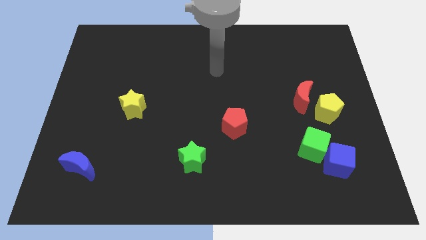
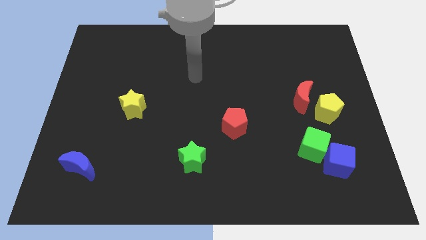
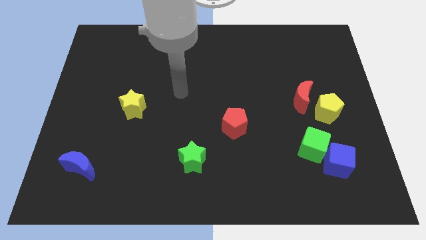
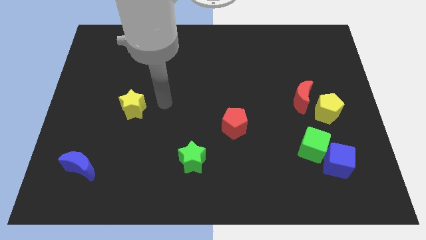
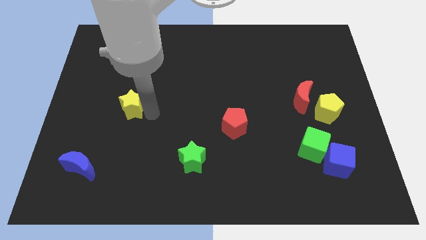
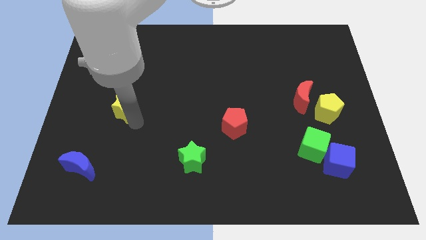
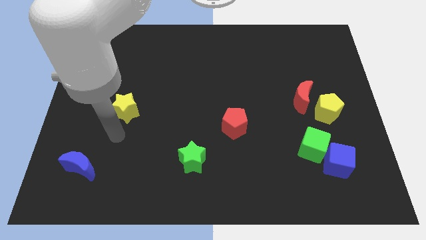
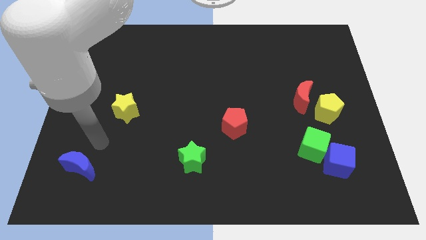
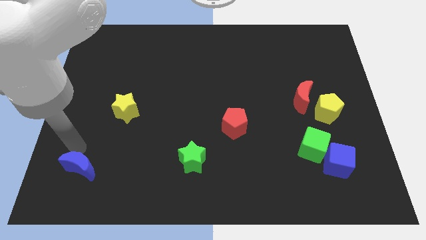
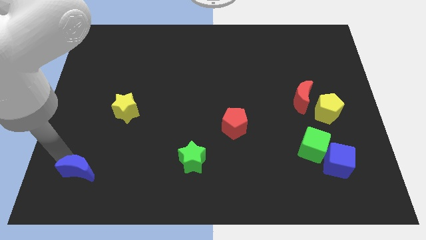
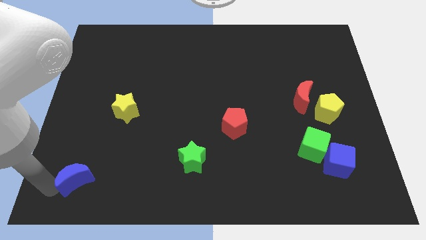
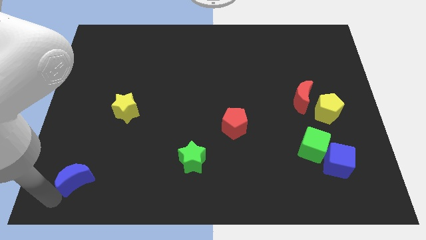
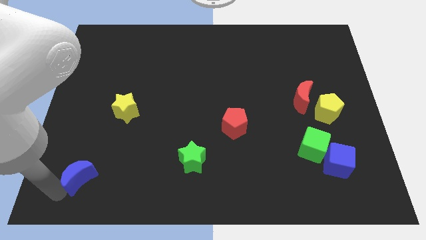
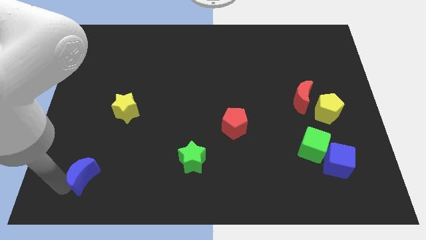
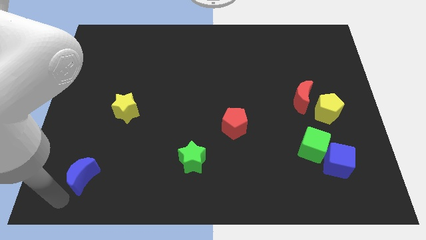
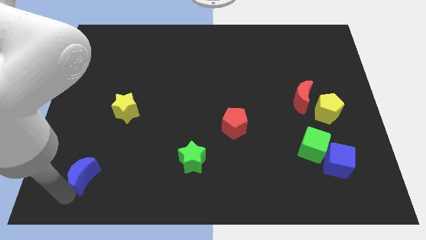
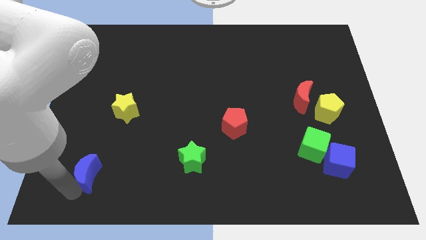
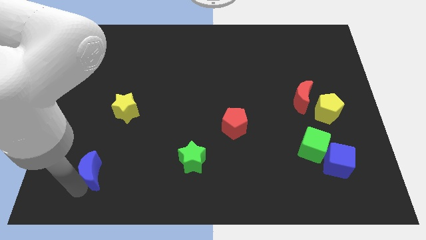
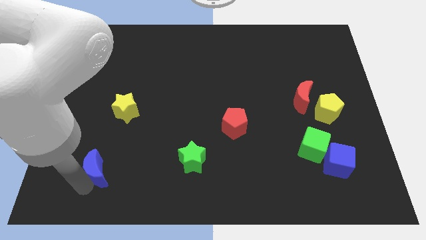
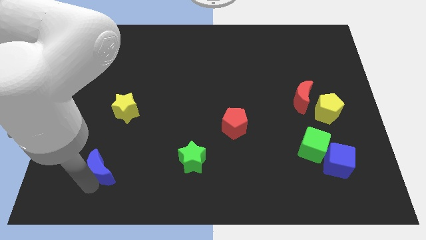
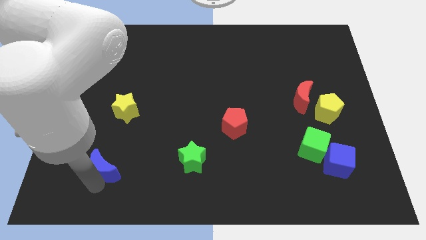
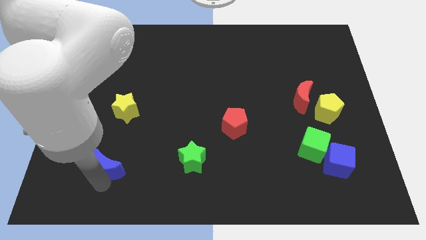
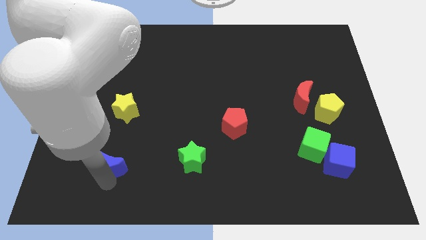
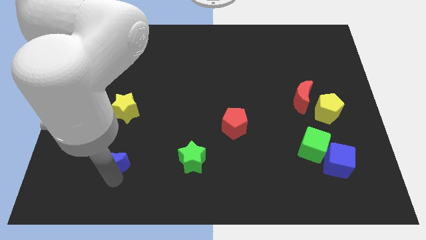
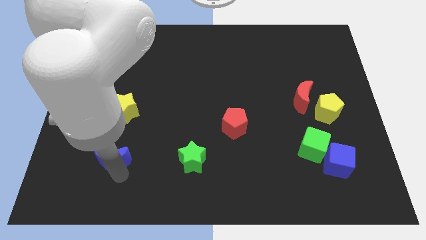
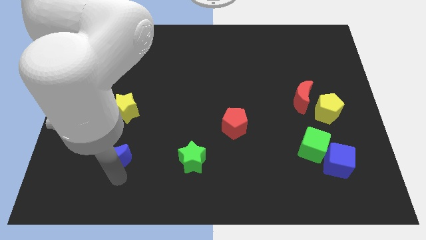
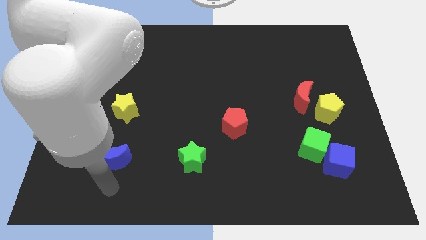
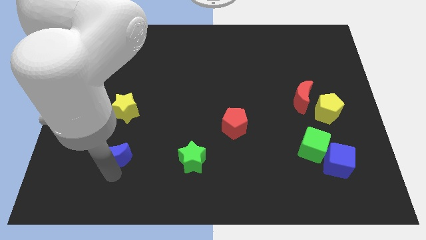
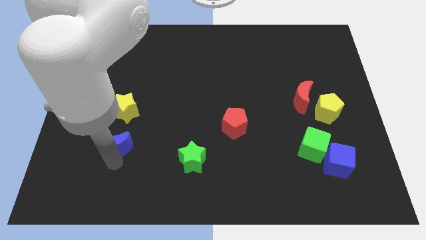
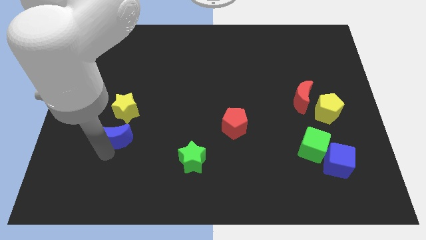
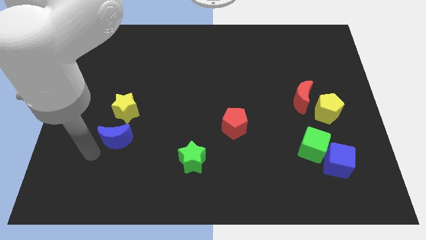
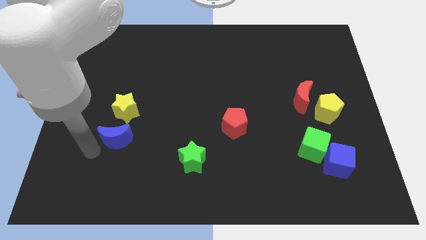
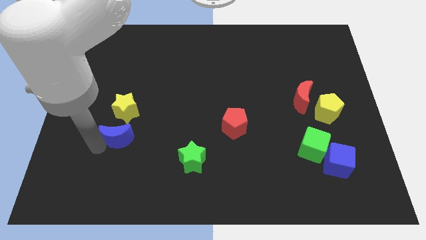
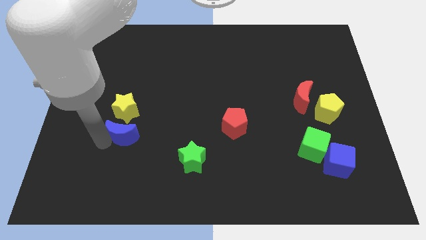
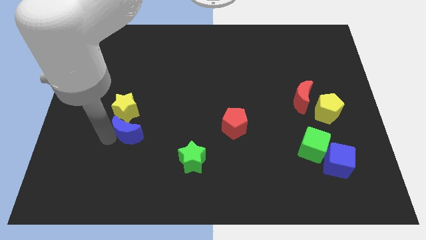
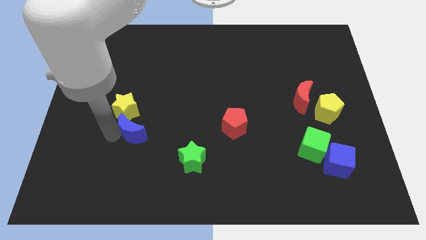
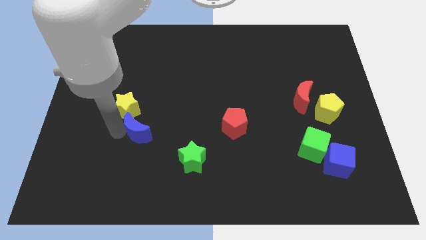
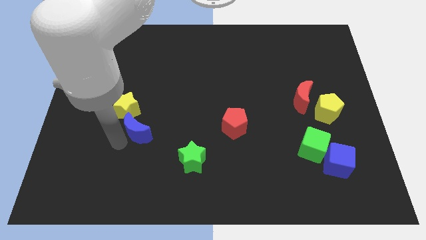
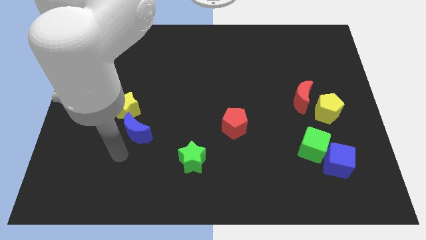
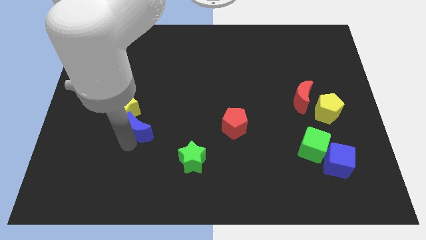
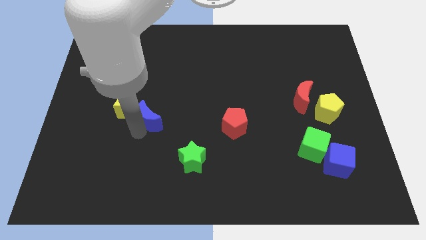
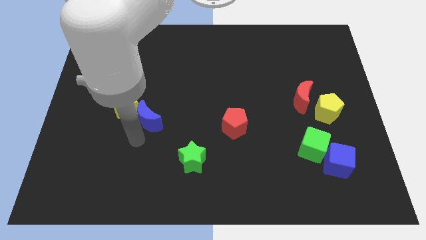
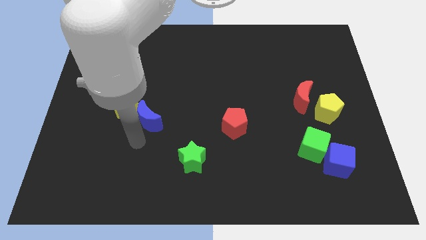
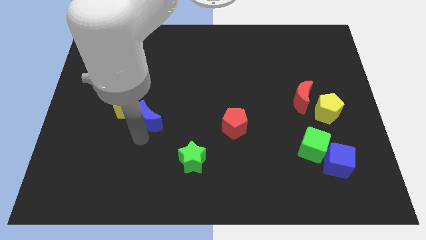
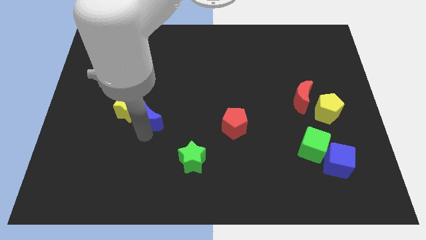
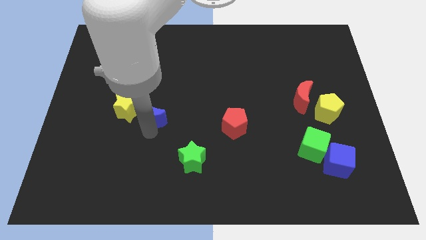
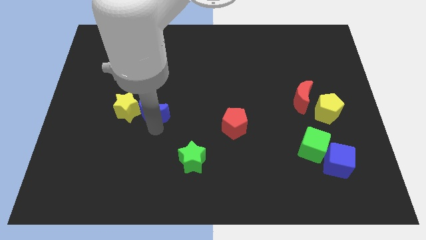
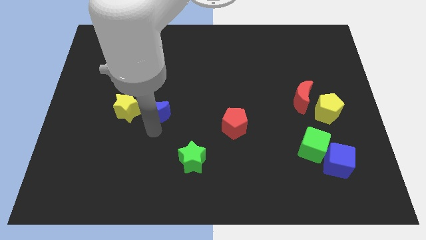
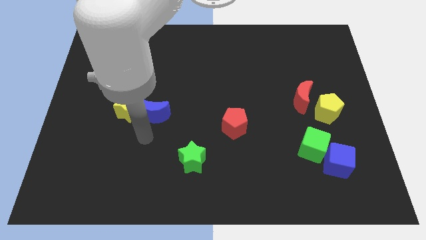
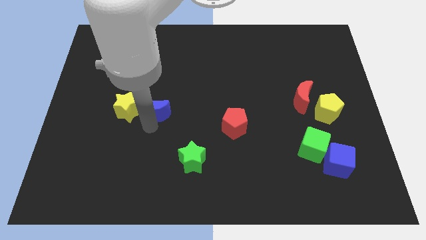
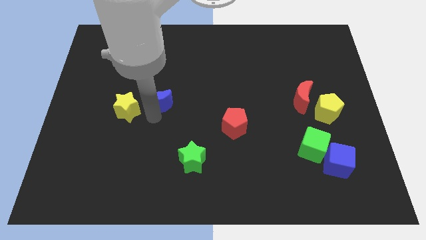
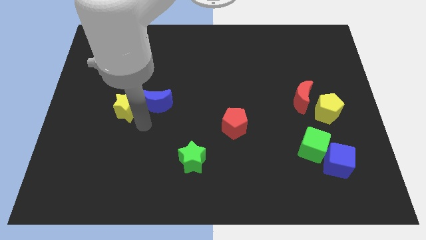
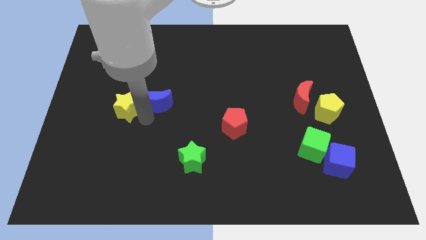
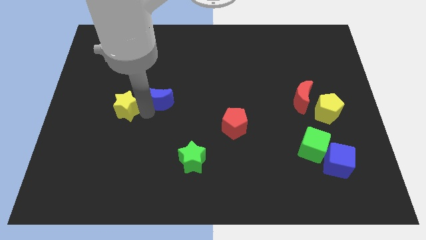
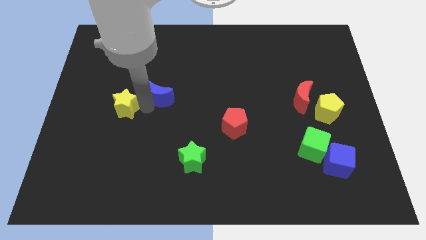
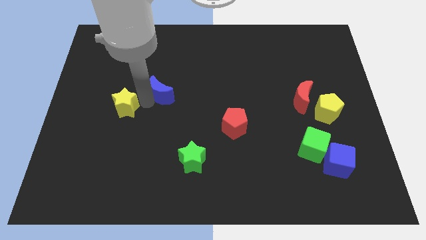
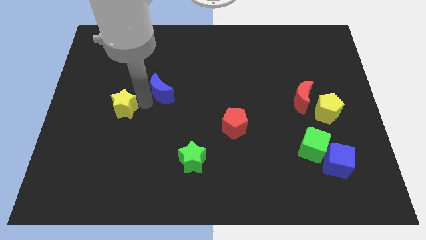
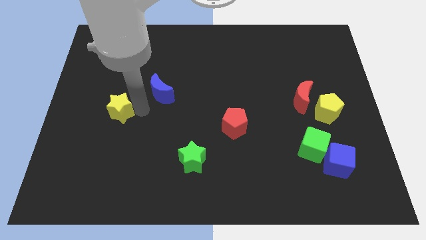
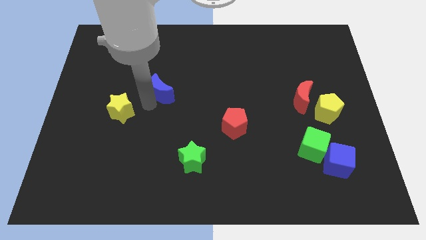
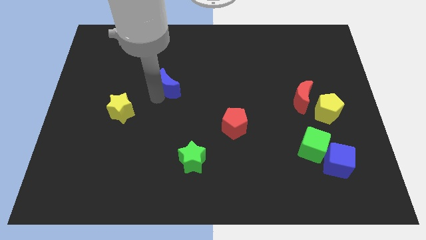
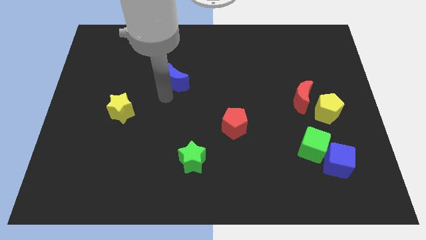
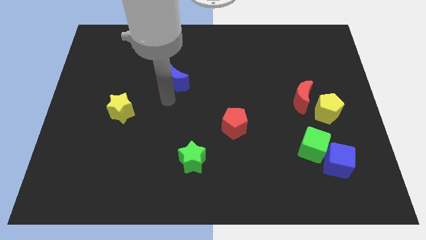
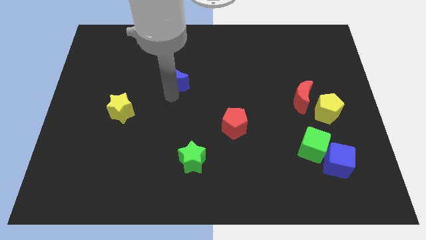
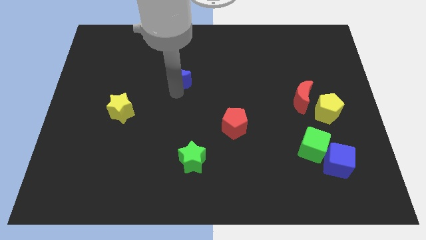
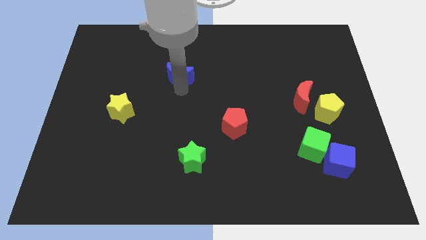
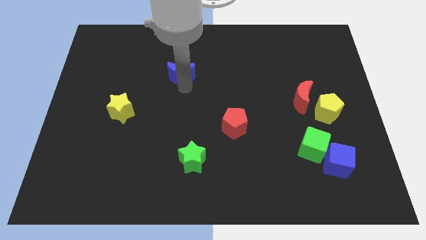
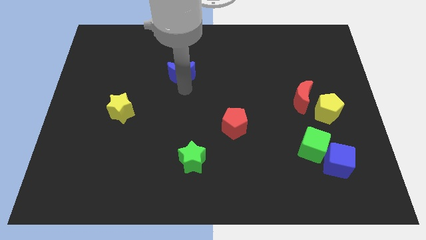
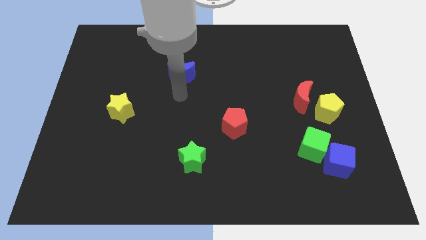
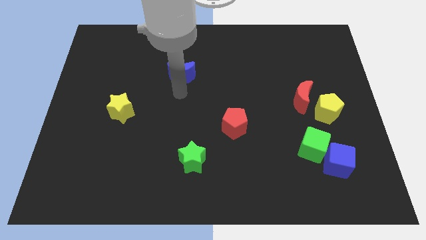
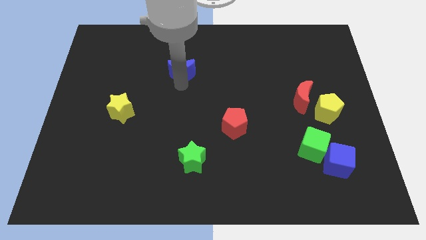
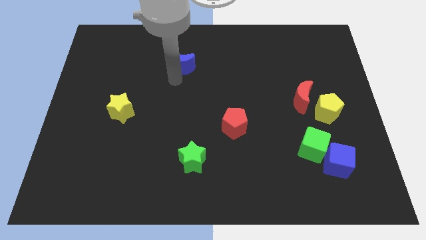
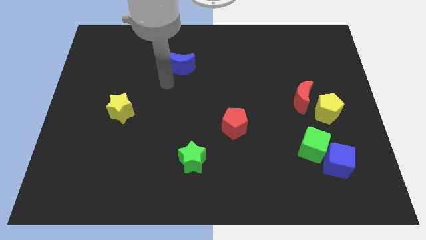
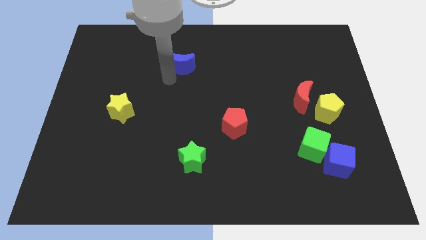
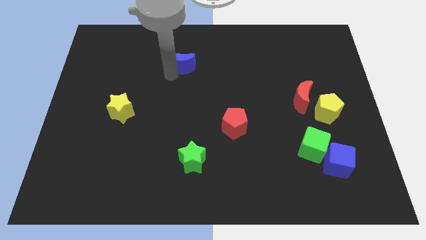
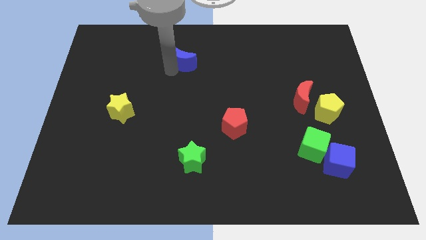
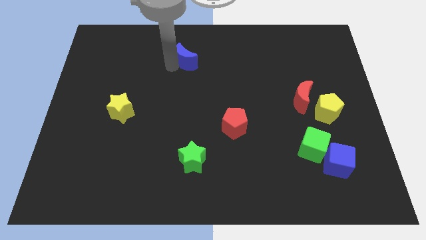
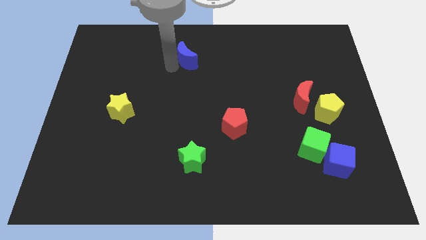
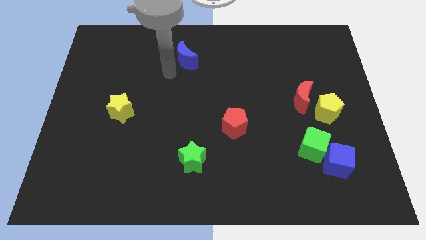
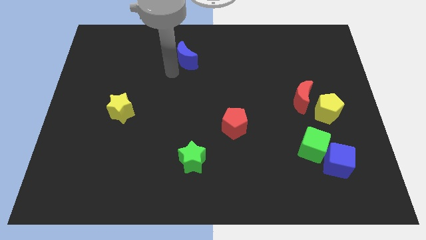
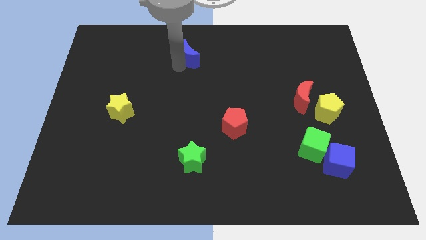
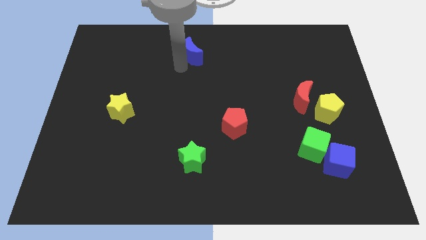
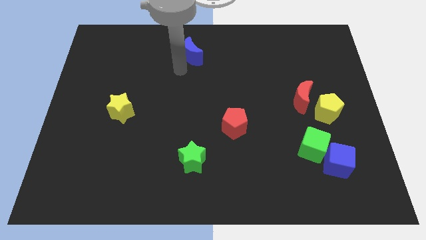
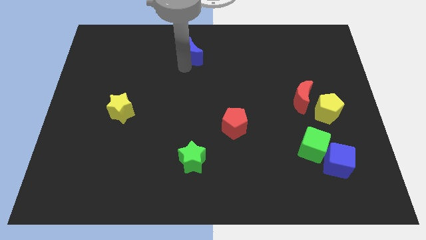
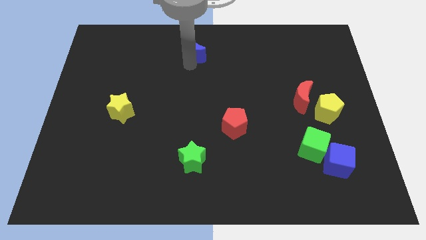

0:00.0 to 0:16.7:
put the blue moon to the top
